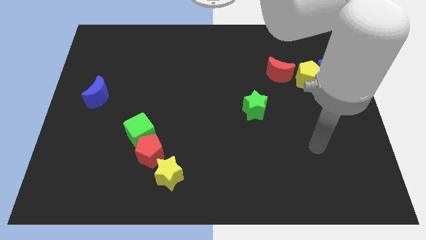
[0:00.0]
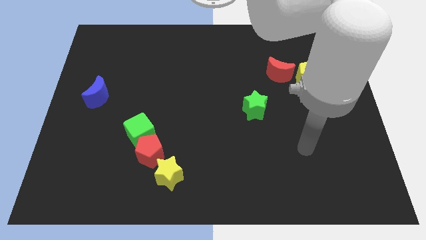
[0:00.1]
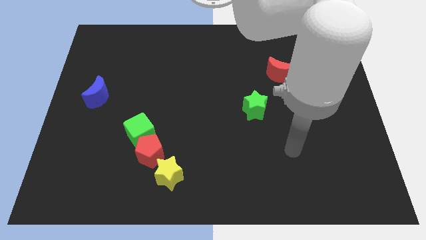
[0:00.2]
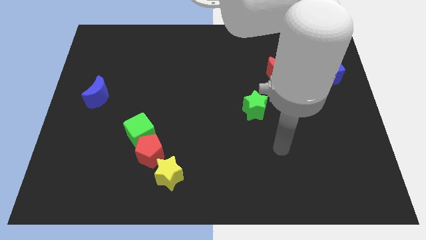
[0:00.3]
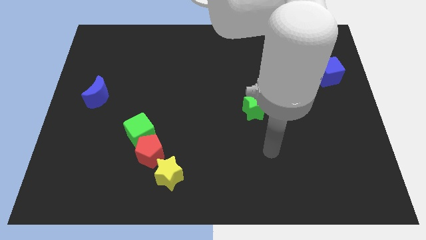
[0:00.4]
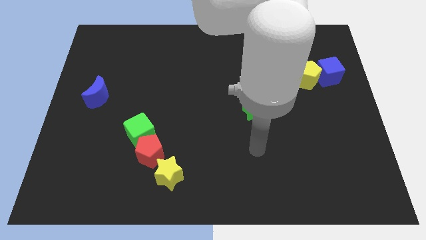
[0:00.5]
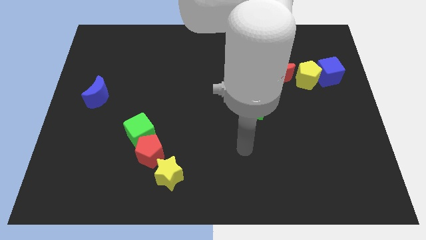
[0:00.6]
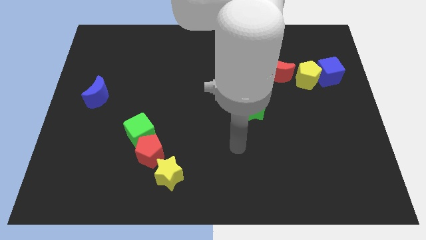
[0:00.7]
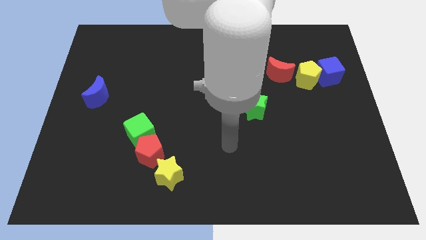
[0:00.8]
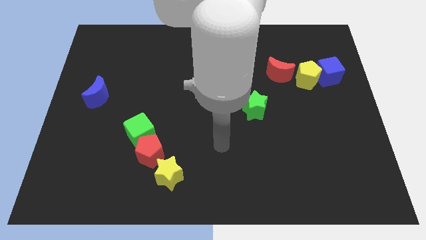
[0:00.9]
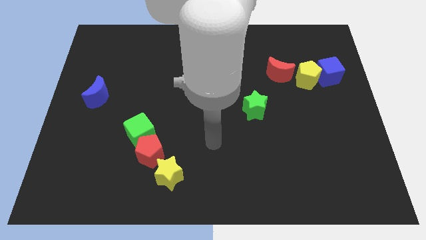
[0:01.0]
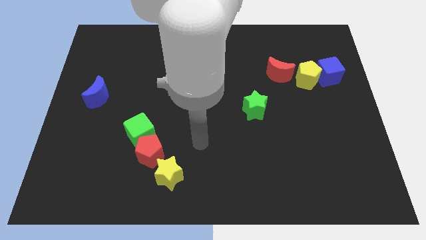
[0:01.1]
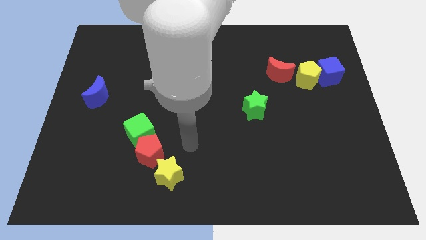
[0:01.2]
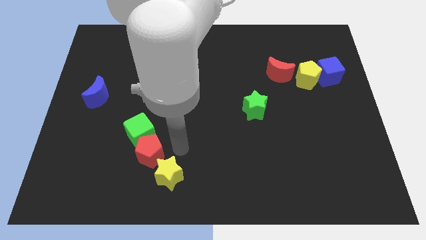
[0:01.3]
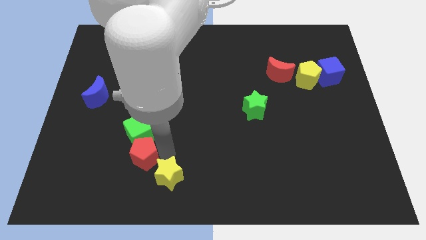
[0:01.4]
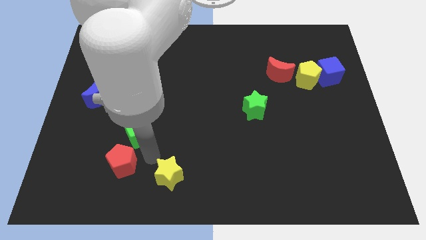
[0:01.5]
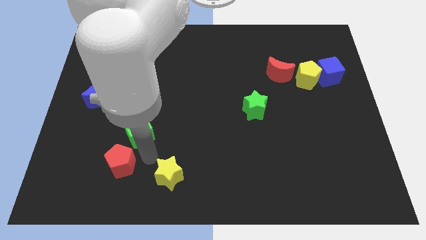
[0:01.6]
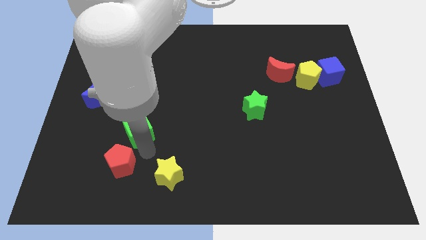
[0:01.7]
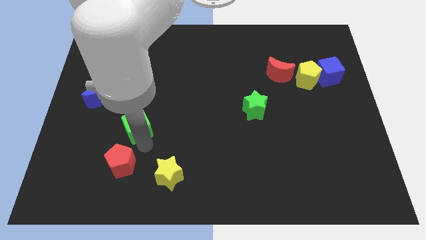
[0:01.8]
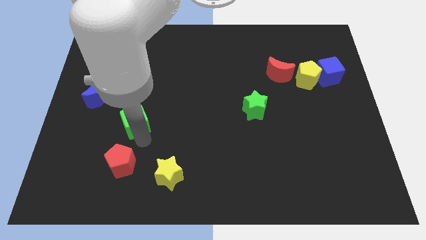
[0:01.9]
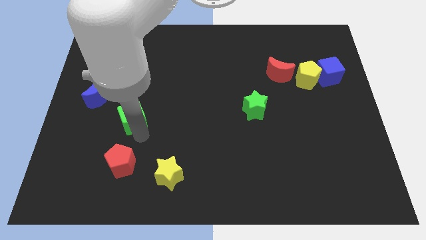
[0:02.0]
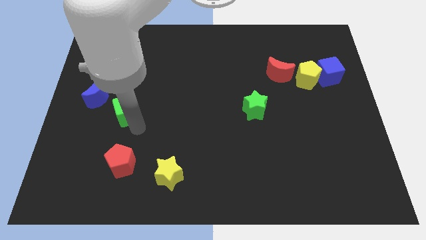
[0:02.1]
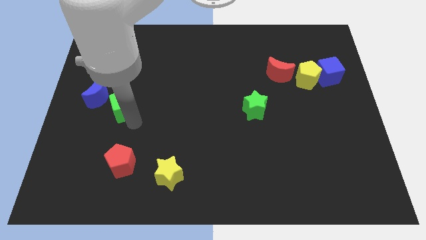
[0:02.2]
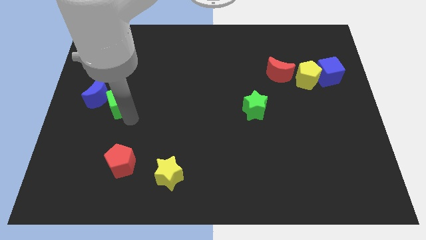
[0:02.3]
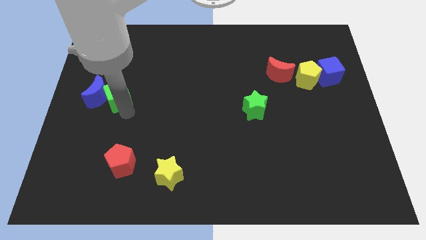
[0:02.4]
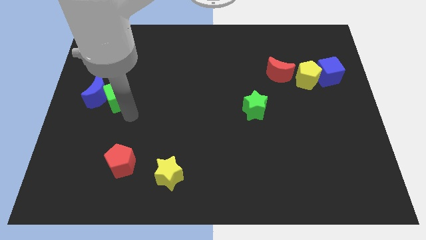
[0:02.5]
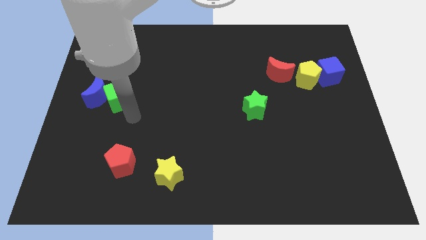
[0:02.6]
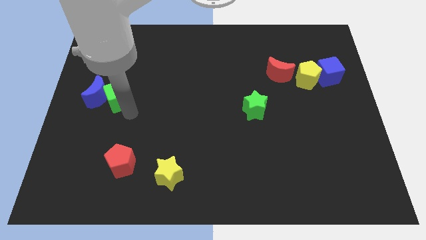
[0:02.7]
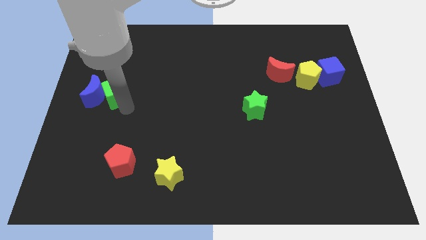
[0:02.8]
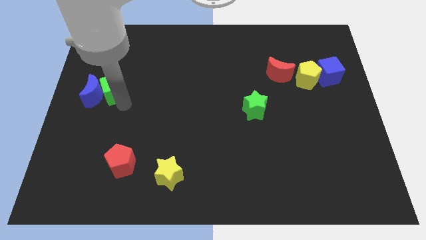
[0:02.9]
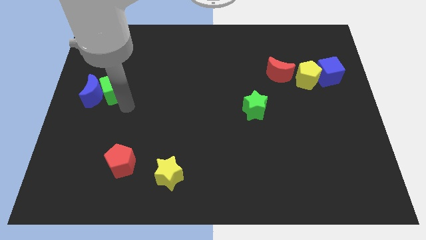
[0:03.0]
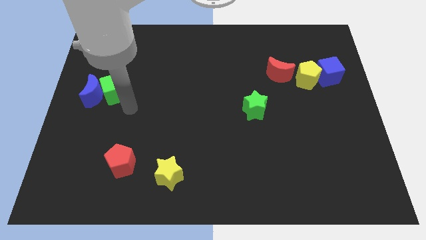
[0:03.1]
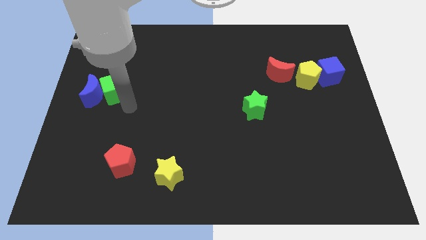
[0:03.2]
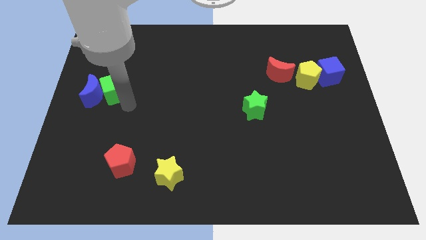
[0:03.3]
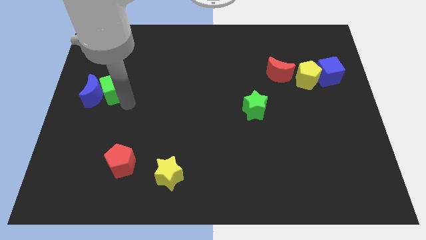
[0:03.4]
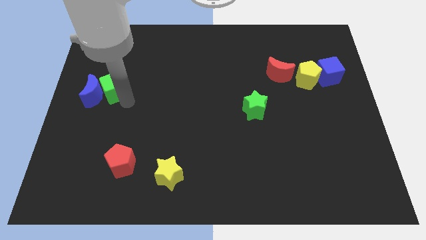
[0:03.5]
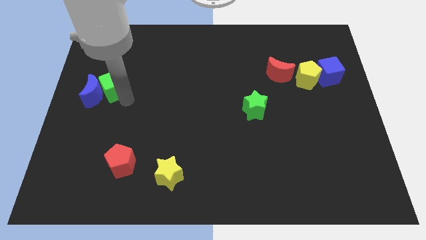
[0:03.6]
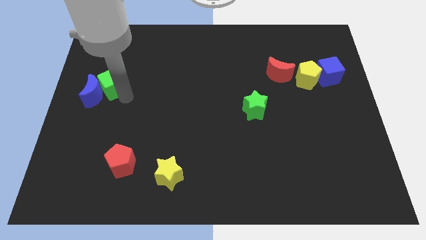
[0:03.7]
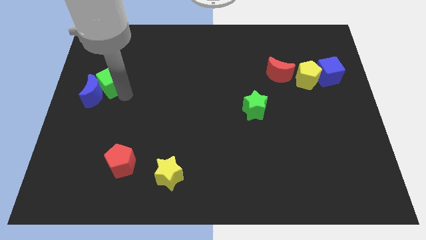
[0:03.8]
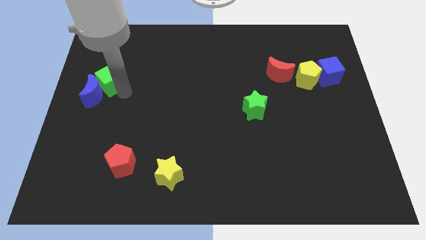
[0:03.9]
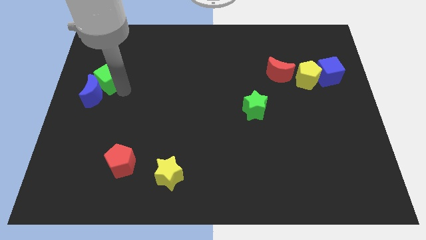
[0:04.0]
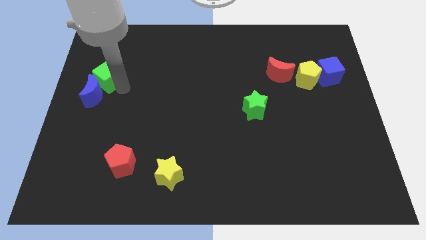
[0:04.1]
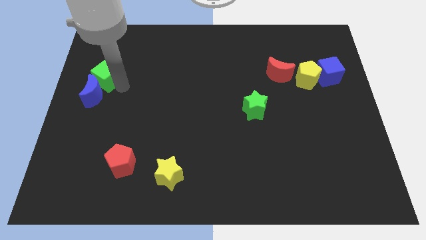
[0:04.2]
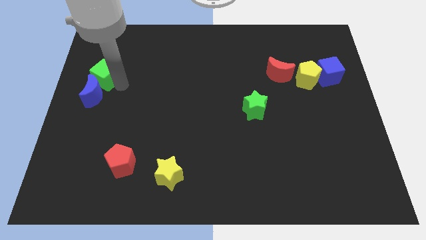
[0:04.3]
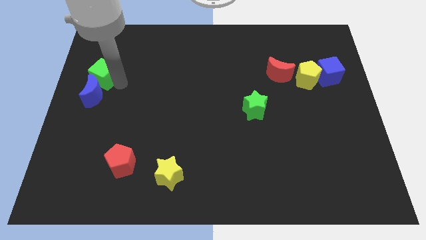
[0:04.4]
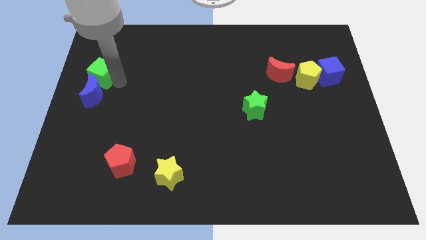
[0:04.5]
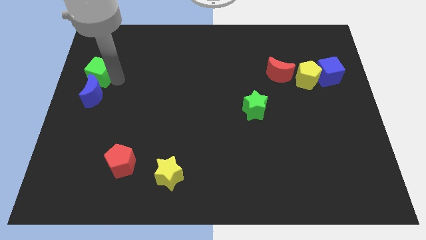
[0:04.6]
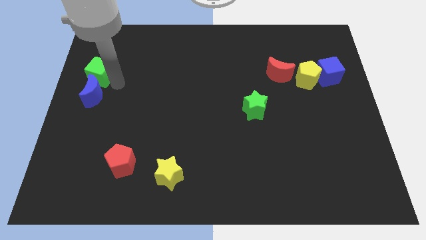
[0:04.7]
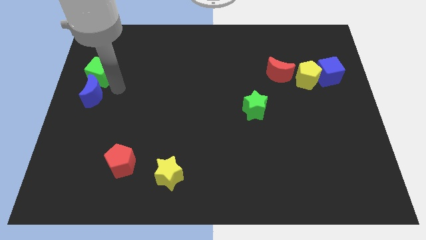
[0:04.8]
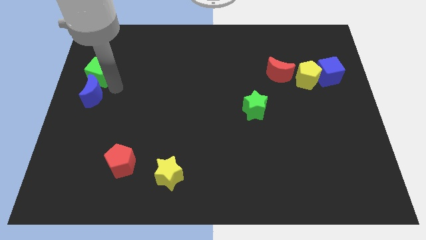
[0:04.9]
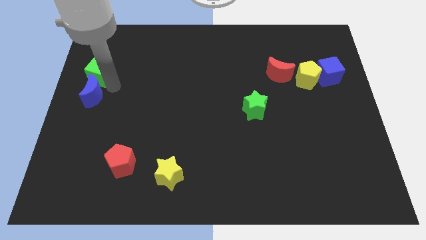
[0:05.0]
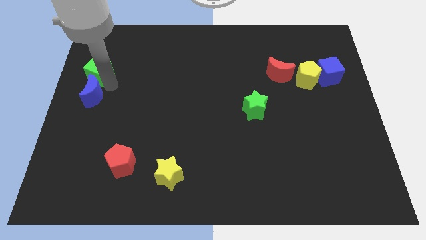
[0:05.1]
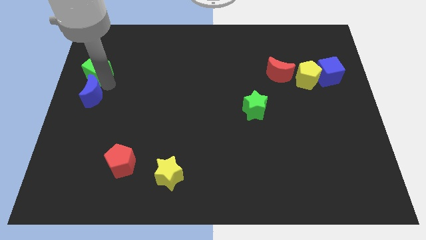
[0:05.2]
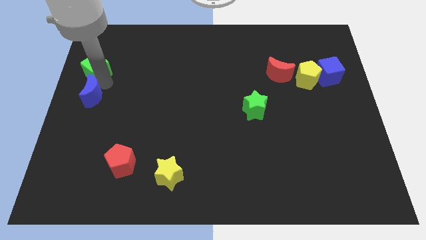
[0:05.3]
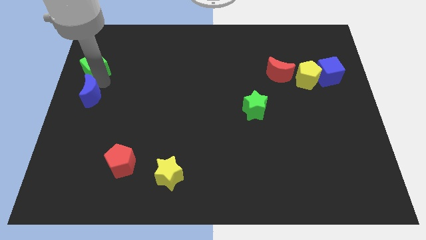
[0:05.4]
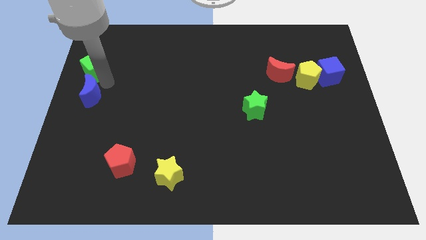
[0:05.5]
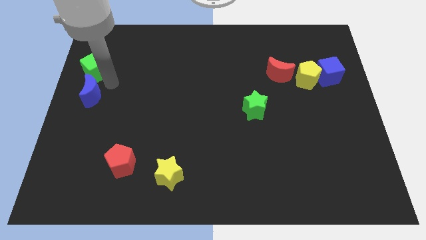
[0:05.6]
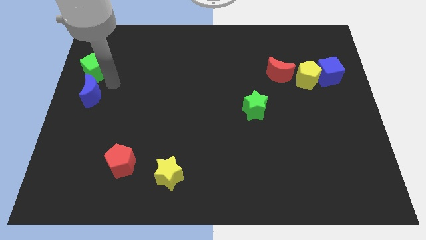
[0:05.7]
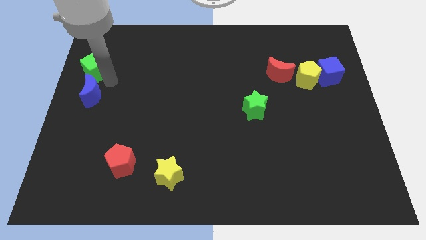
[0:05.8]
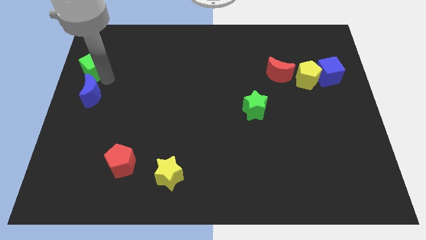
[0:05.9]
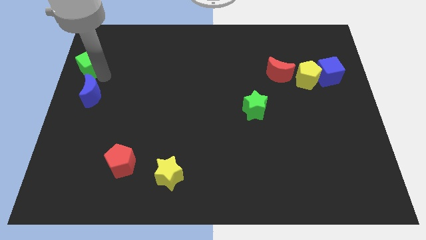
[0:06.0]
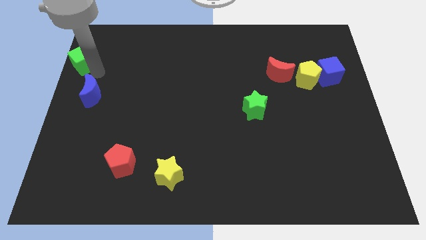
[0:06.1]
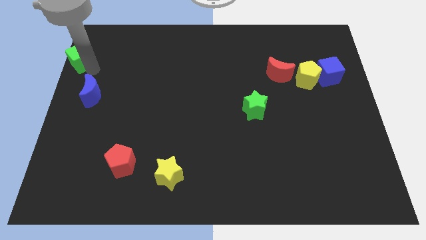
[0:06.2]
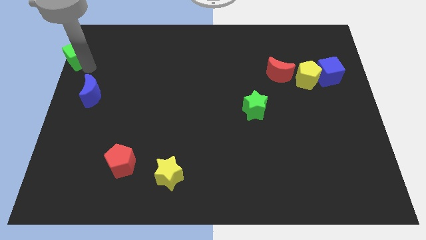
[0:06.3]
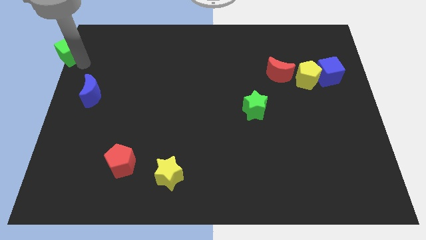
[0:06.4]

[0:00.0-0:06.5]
put the green cube to the top left
